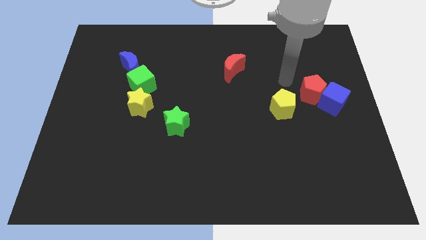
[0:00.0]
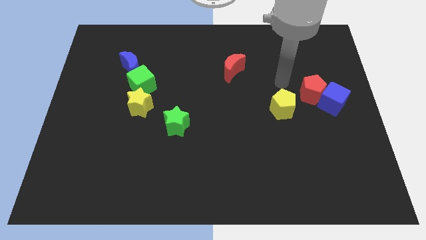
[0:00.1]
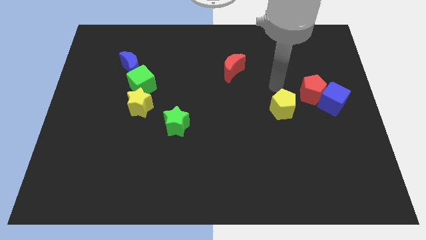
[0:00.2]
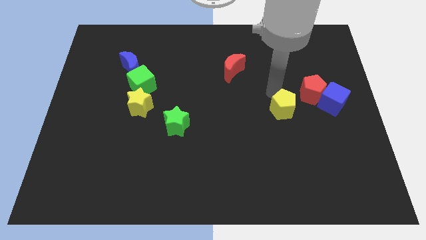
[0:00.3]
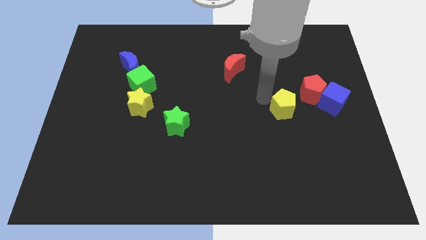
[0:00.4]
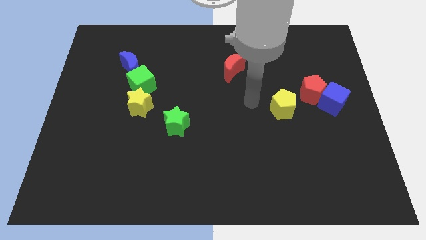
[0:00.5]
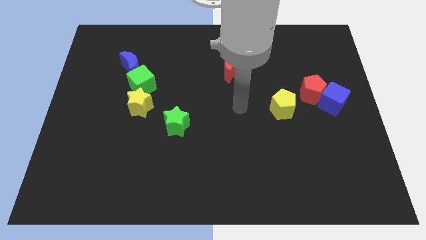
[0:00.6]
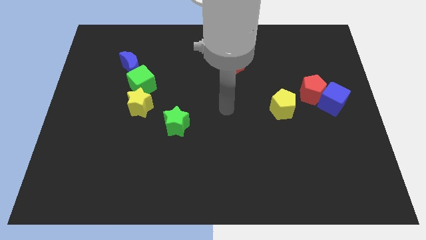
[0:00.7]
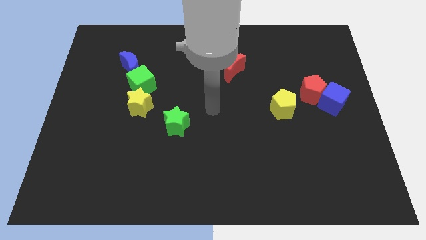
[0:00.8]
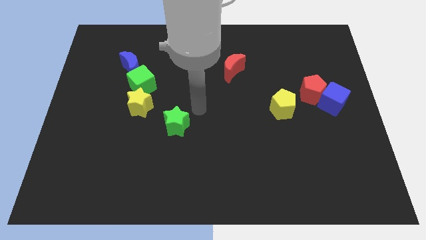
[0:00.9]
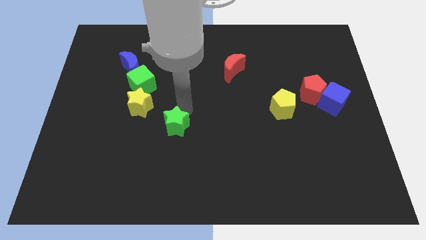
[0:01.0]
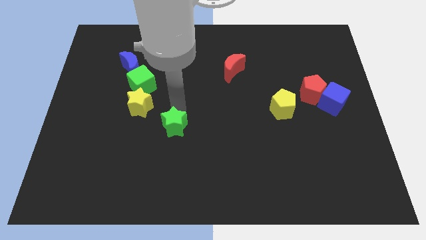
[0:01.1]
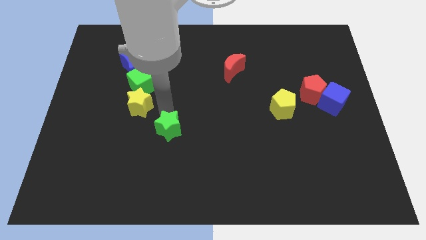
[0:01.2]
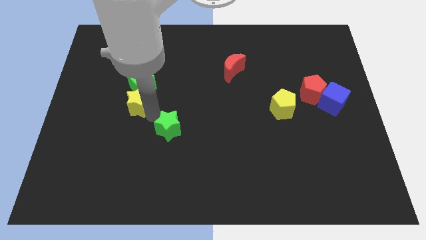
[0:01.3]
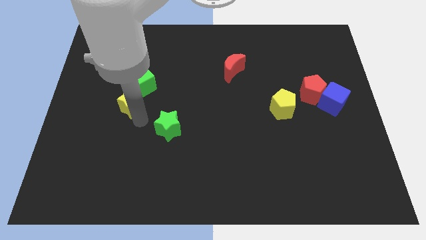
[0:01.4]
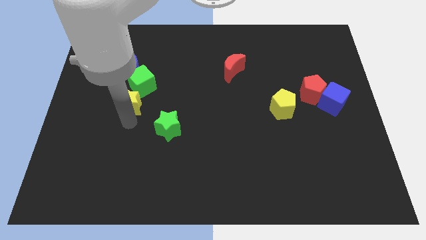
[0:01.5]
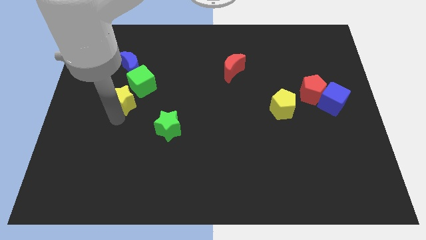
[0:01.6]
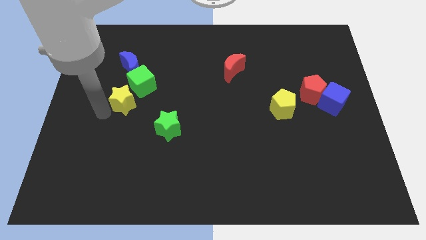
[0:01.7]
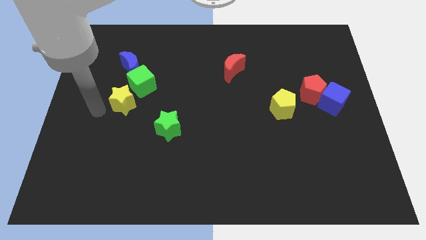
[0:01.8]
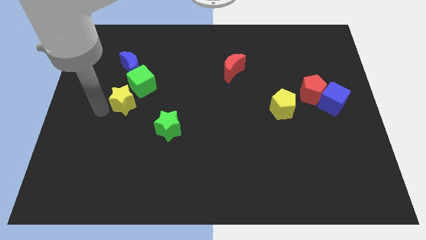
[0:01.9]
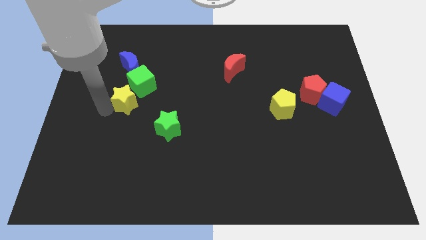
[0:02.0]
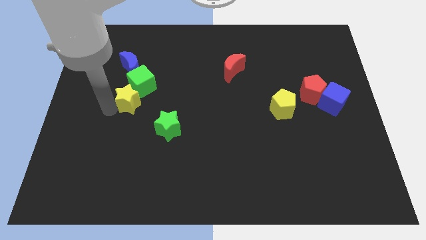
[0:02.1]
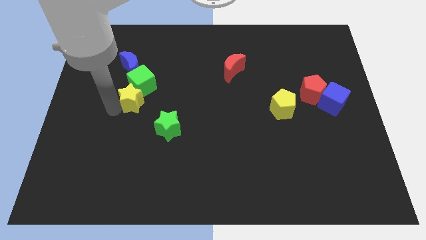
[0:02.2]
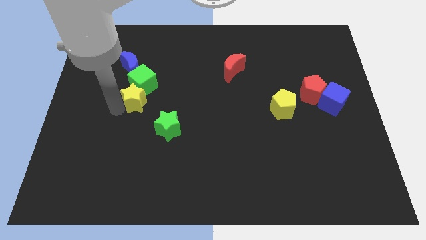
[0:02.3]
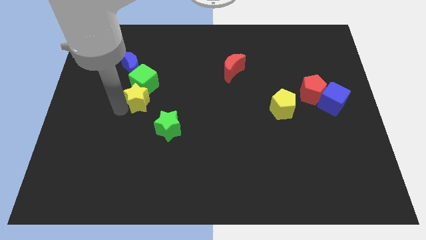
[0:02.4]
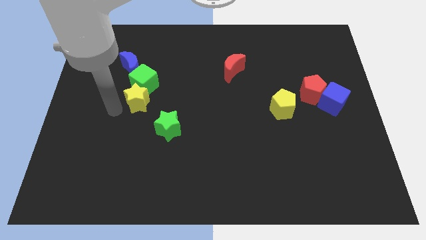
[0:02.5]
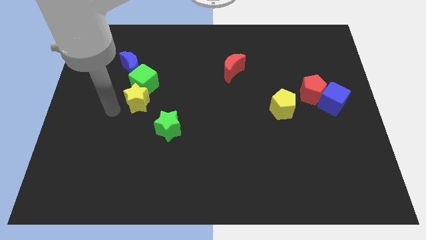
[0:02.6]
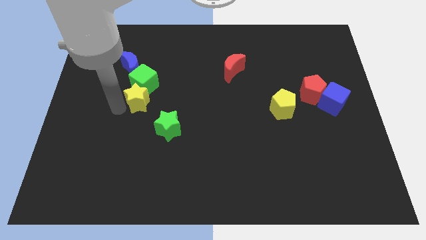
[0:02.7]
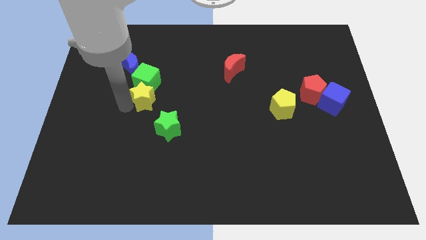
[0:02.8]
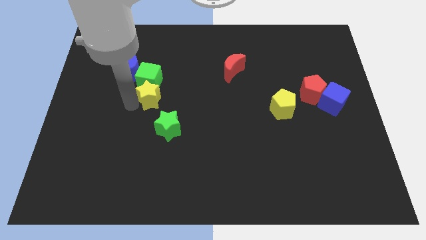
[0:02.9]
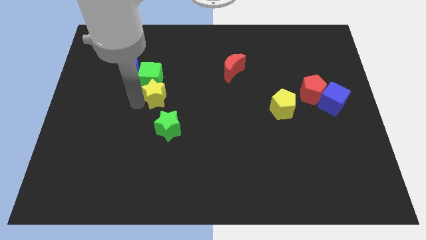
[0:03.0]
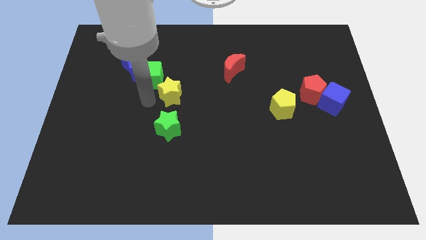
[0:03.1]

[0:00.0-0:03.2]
slightly slide the yellow star up and to the right

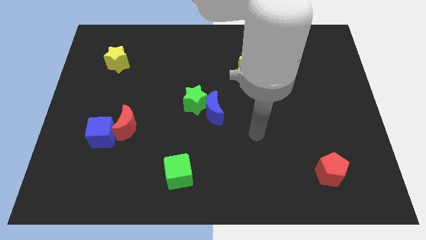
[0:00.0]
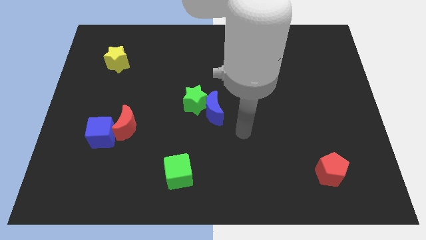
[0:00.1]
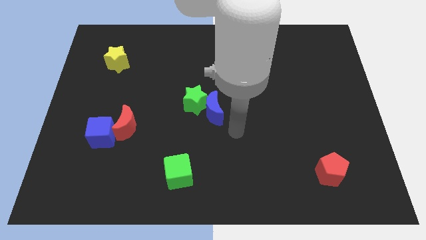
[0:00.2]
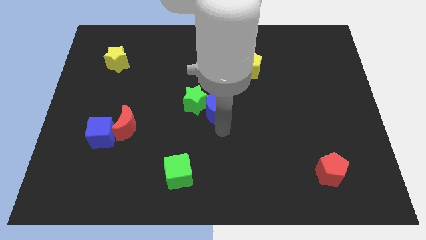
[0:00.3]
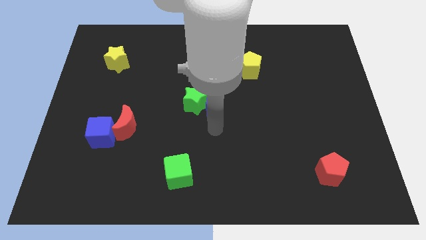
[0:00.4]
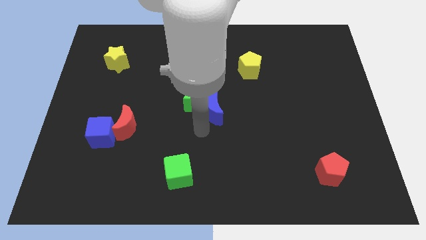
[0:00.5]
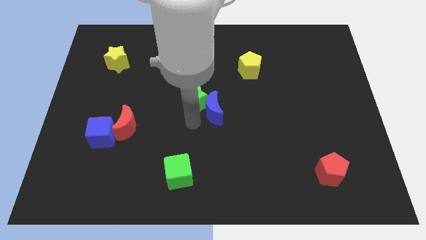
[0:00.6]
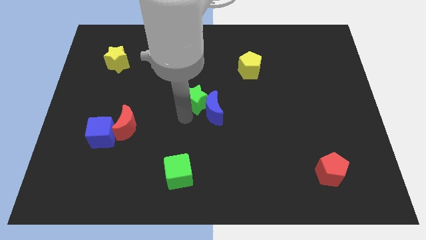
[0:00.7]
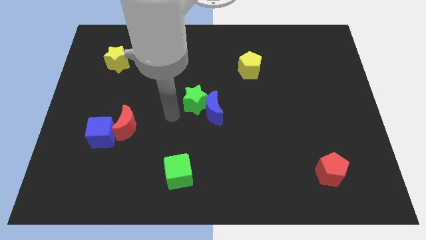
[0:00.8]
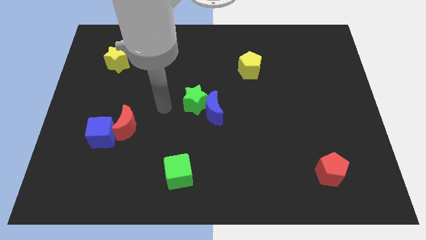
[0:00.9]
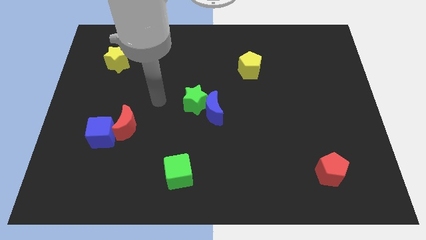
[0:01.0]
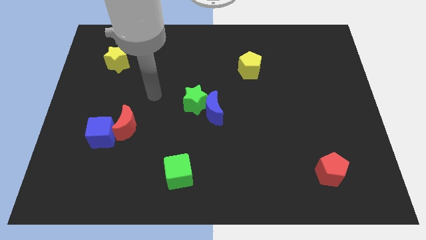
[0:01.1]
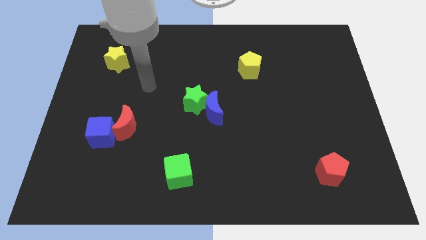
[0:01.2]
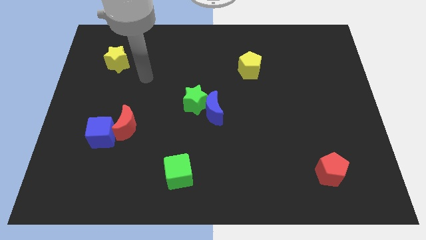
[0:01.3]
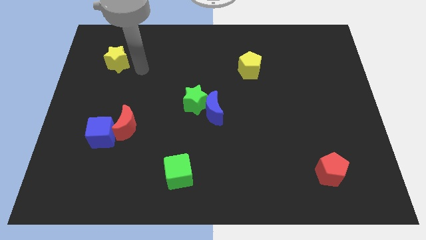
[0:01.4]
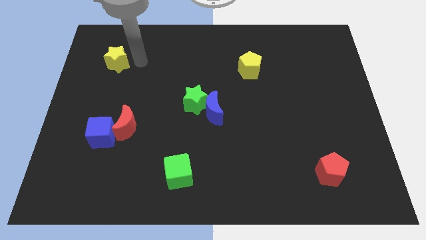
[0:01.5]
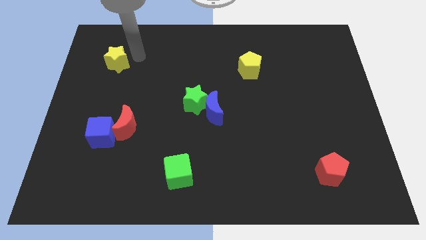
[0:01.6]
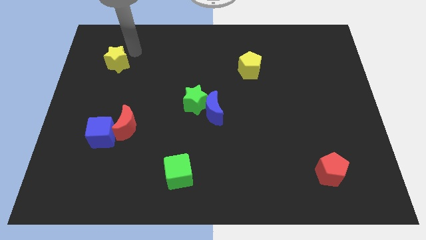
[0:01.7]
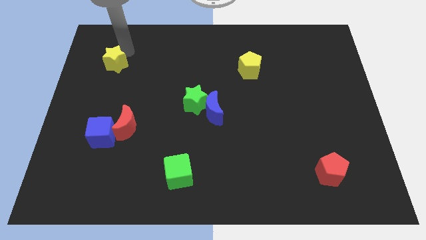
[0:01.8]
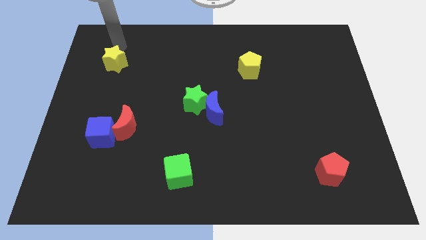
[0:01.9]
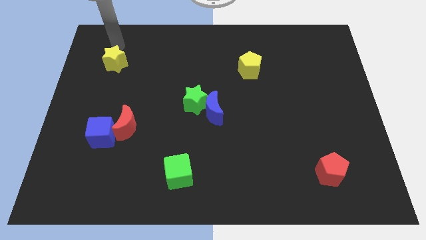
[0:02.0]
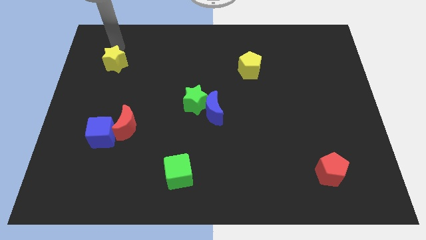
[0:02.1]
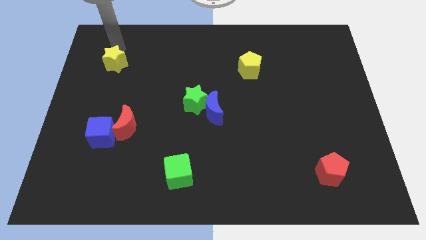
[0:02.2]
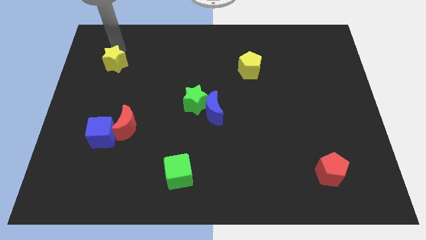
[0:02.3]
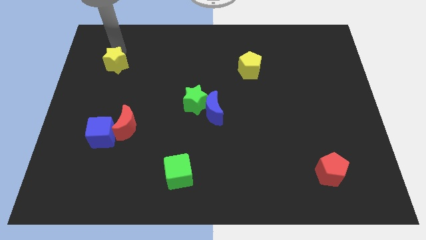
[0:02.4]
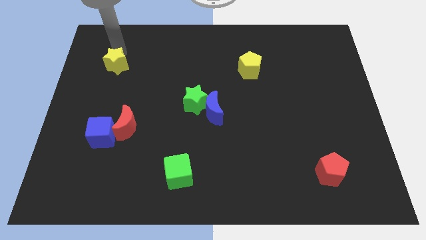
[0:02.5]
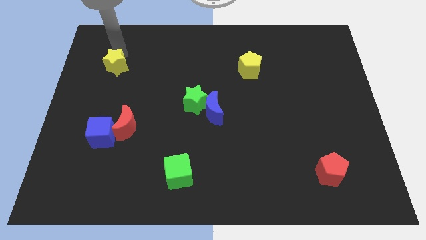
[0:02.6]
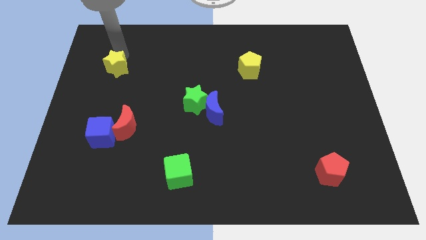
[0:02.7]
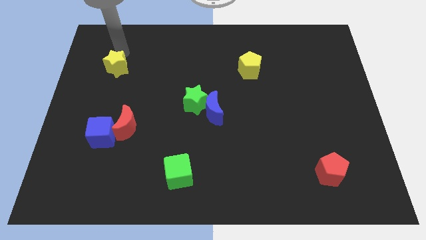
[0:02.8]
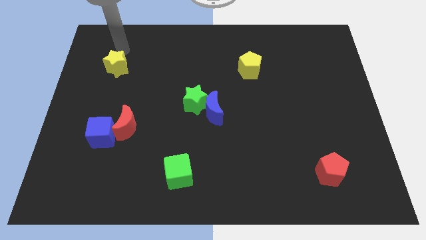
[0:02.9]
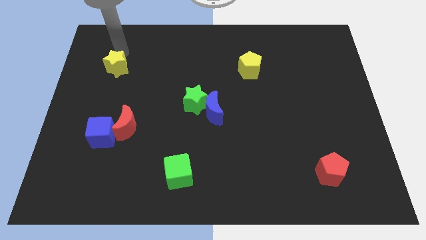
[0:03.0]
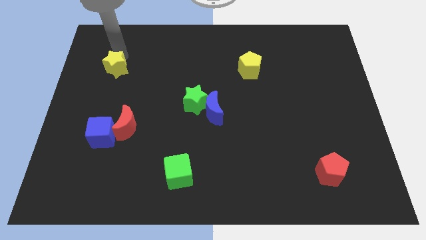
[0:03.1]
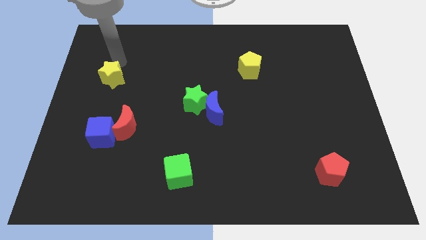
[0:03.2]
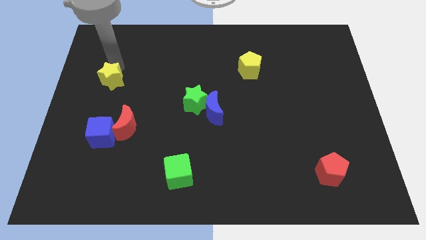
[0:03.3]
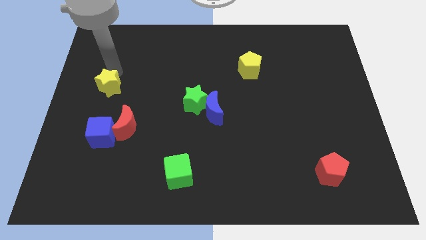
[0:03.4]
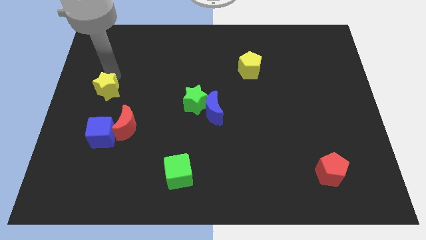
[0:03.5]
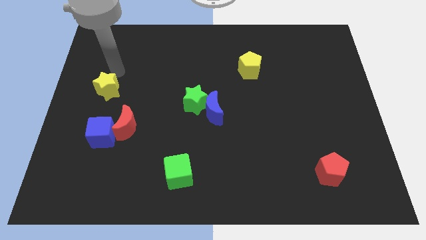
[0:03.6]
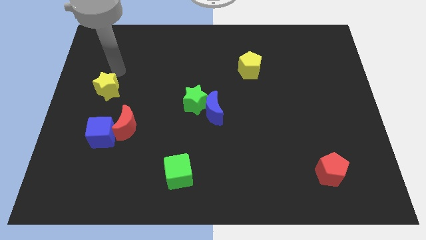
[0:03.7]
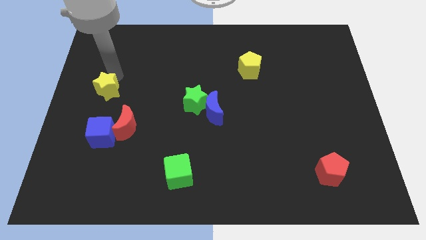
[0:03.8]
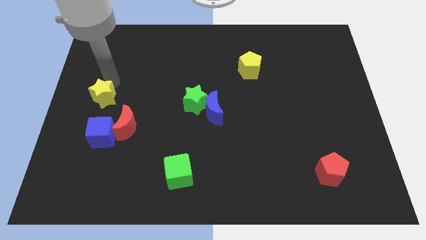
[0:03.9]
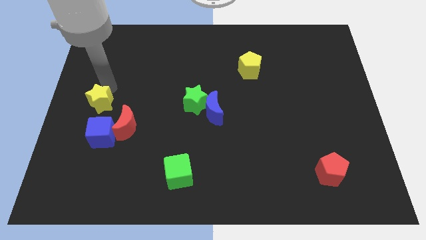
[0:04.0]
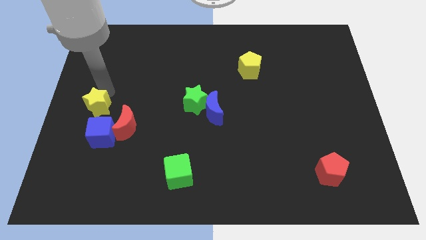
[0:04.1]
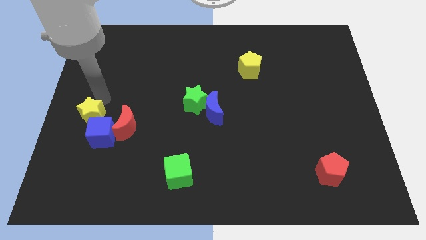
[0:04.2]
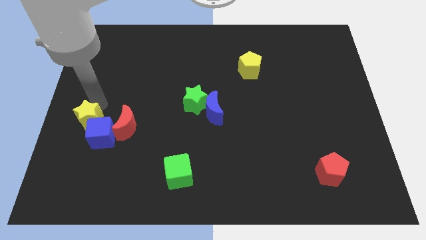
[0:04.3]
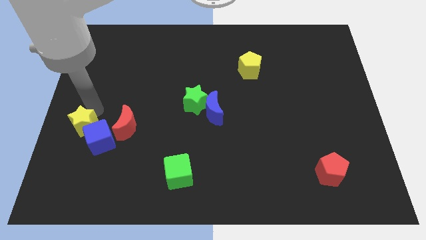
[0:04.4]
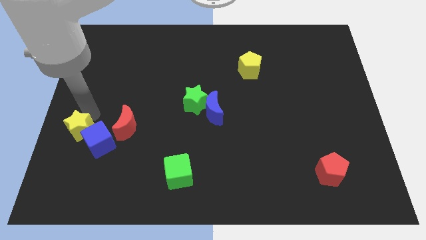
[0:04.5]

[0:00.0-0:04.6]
push the yellow star downwards
